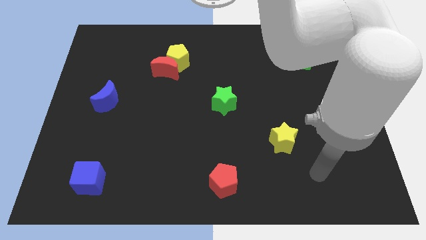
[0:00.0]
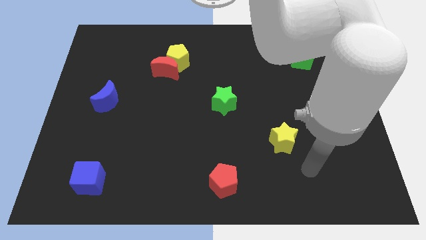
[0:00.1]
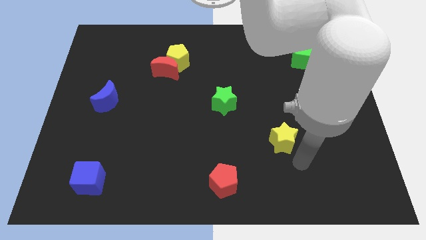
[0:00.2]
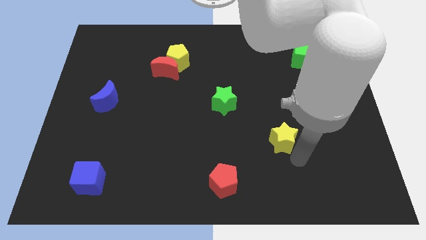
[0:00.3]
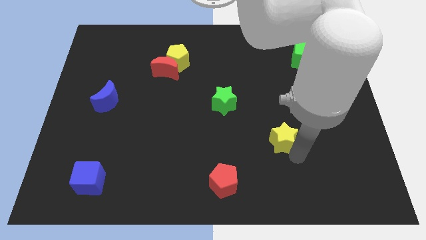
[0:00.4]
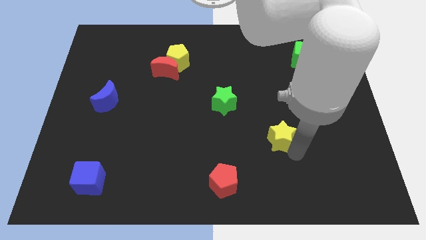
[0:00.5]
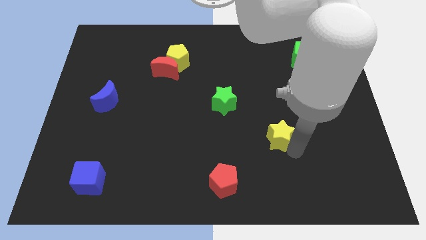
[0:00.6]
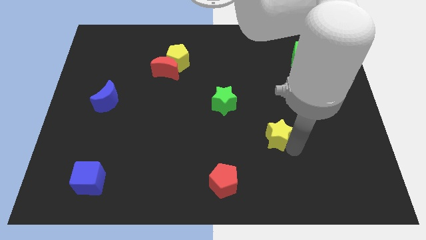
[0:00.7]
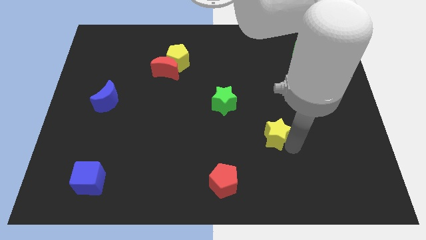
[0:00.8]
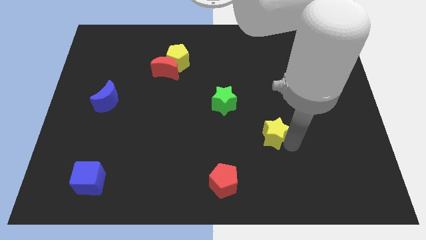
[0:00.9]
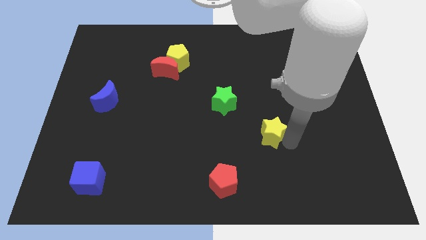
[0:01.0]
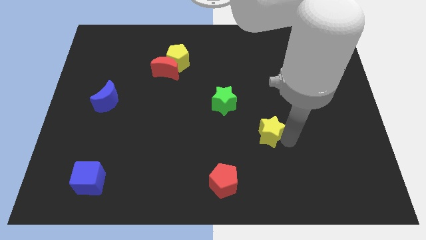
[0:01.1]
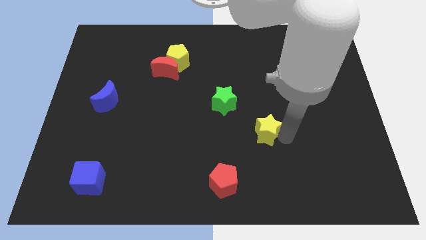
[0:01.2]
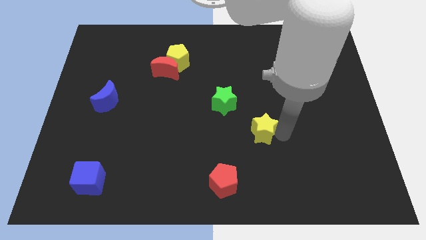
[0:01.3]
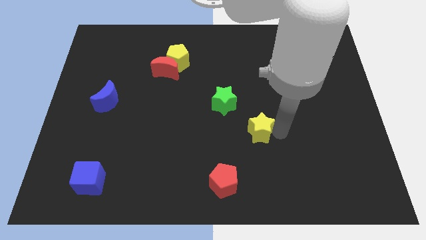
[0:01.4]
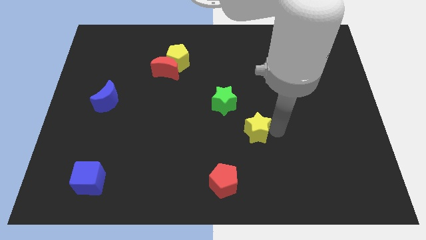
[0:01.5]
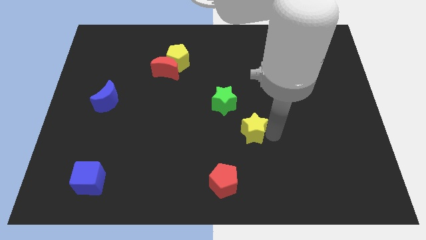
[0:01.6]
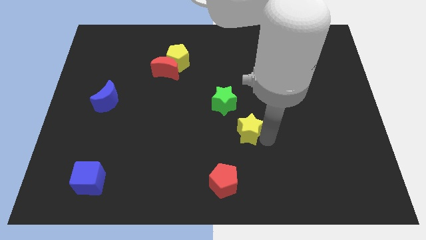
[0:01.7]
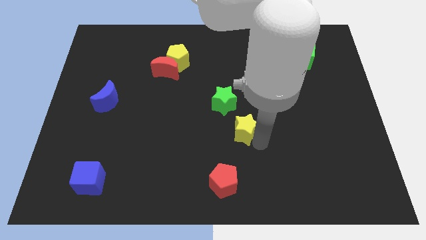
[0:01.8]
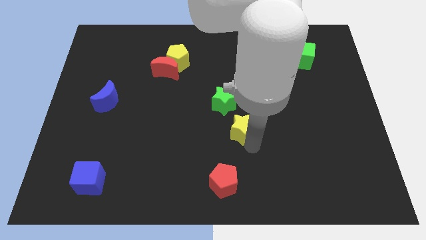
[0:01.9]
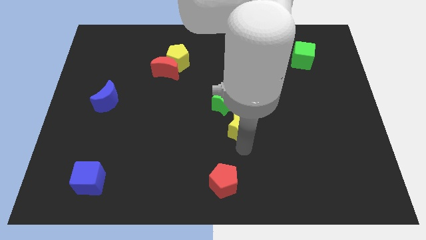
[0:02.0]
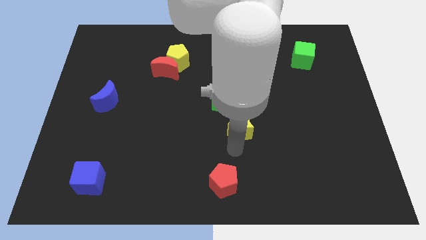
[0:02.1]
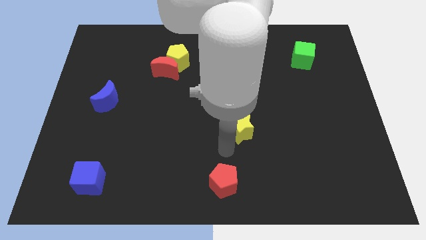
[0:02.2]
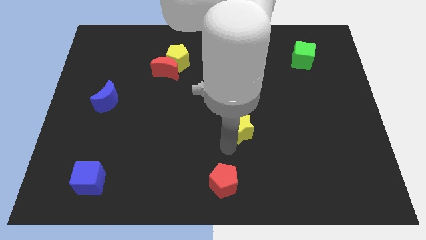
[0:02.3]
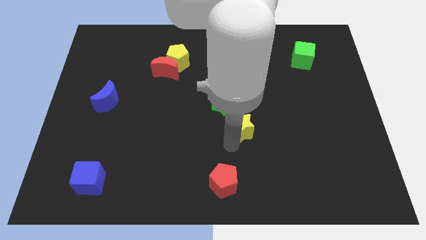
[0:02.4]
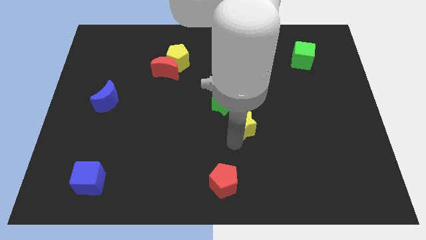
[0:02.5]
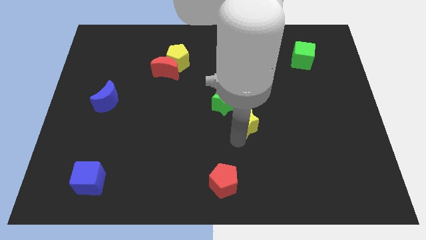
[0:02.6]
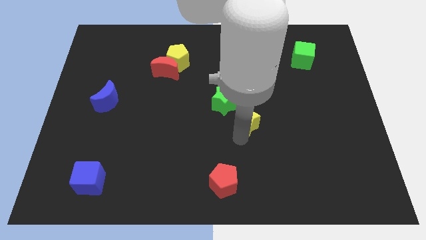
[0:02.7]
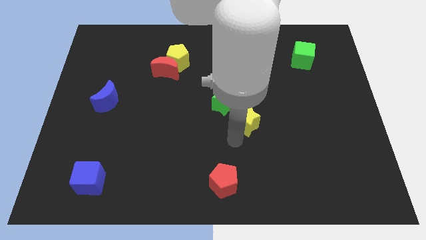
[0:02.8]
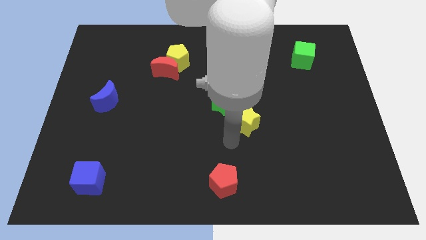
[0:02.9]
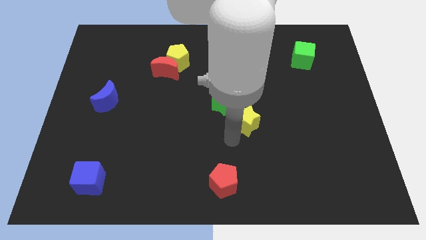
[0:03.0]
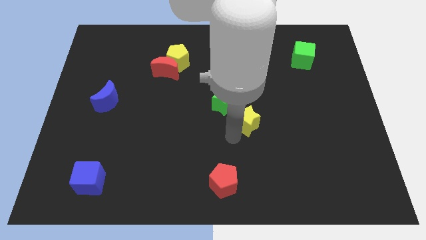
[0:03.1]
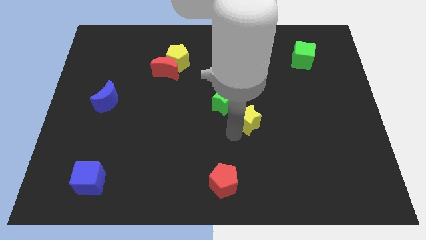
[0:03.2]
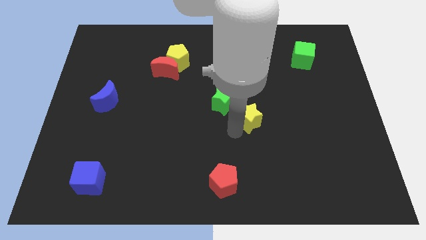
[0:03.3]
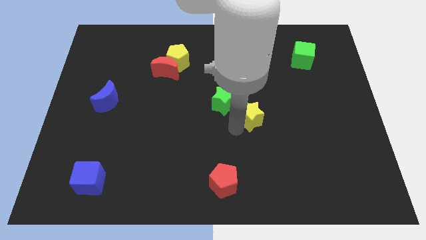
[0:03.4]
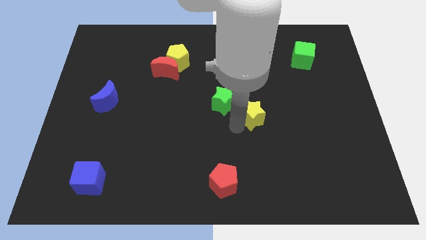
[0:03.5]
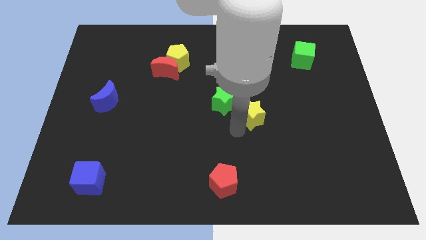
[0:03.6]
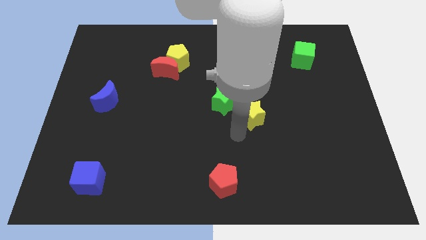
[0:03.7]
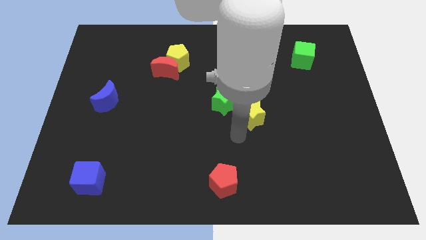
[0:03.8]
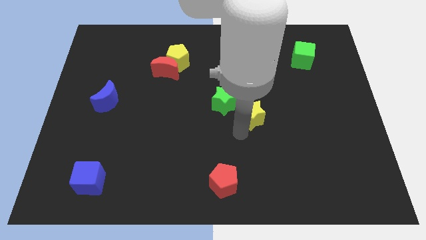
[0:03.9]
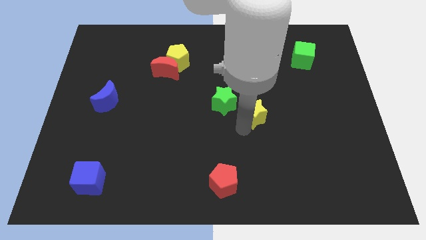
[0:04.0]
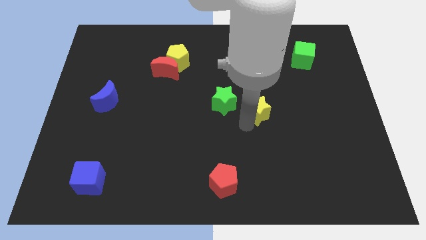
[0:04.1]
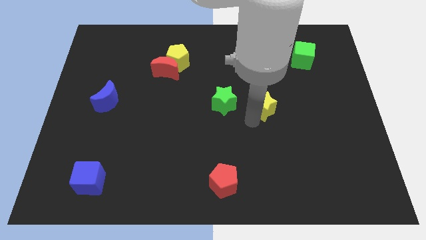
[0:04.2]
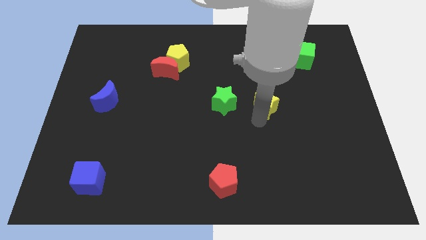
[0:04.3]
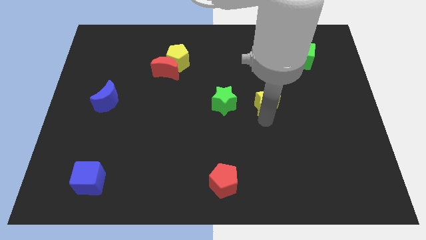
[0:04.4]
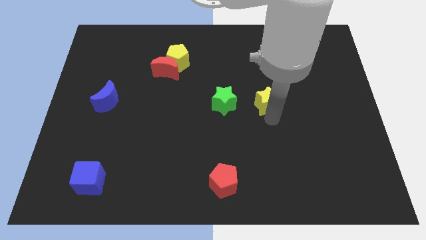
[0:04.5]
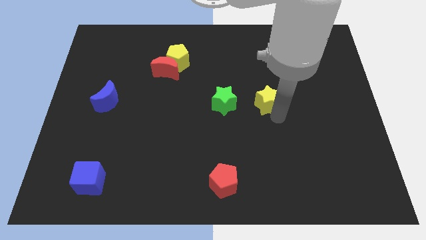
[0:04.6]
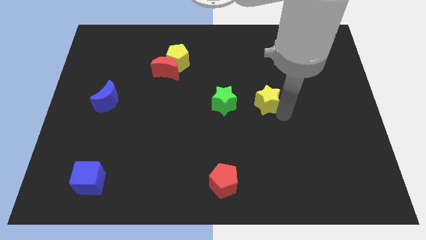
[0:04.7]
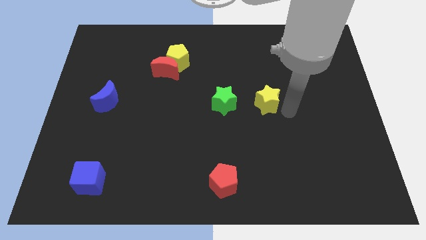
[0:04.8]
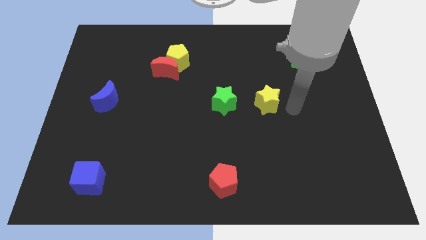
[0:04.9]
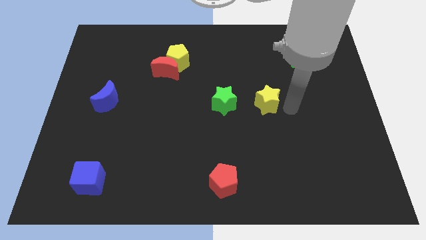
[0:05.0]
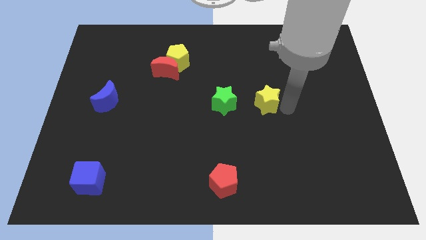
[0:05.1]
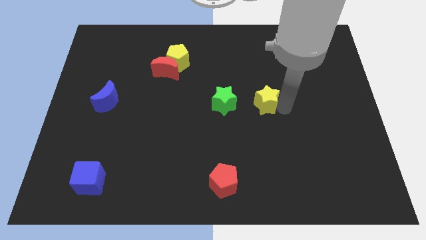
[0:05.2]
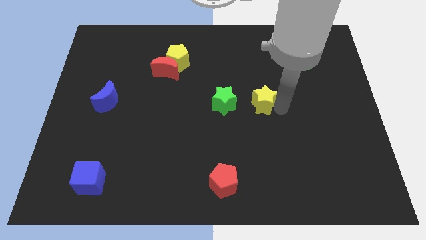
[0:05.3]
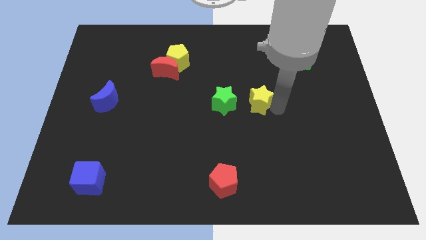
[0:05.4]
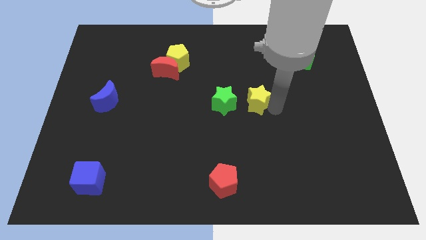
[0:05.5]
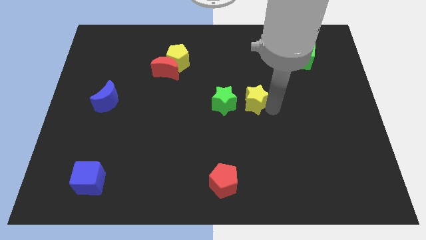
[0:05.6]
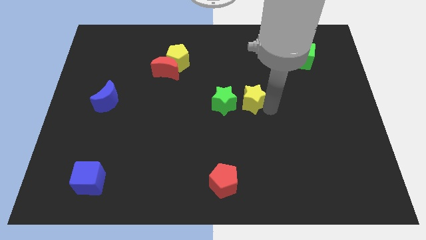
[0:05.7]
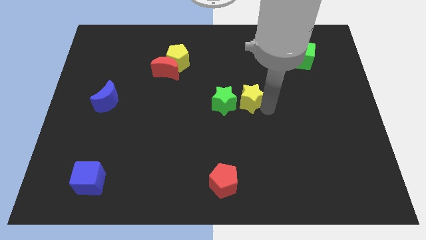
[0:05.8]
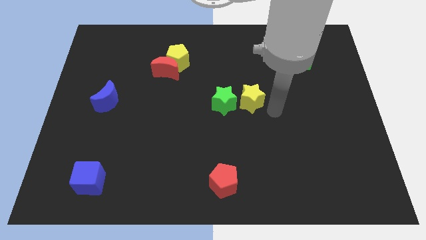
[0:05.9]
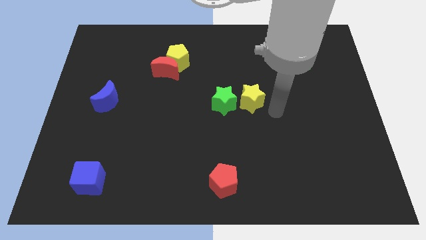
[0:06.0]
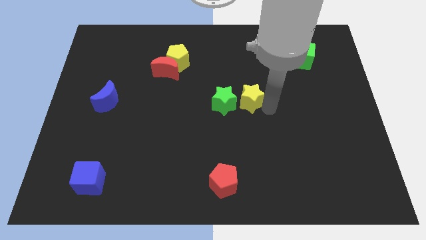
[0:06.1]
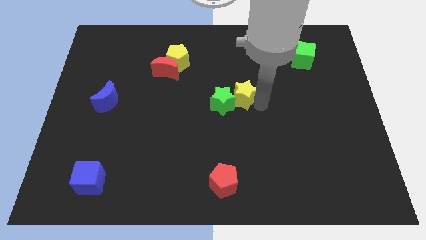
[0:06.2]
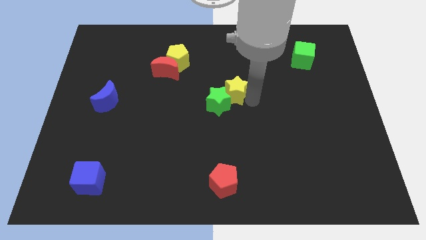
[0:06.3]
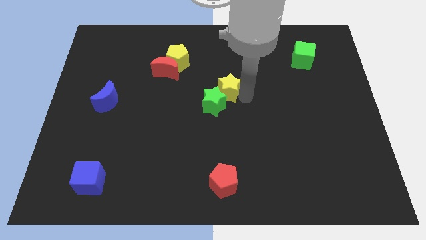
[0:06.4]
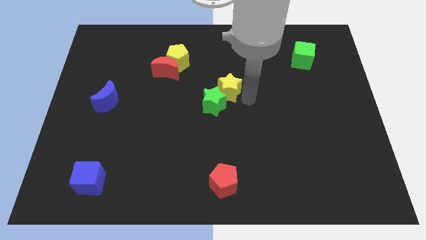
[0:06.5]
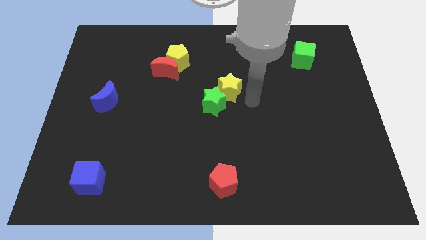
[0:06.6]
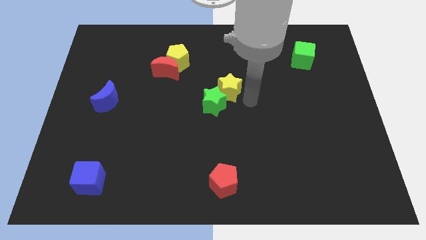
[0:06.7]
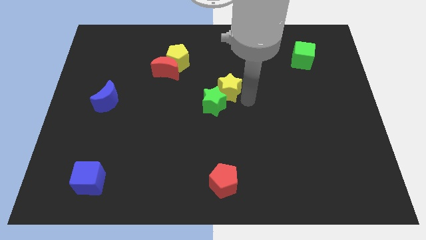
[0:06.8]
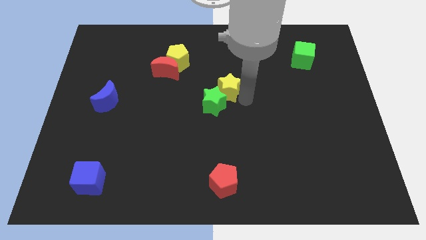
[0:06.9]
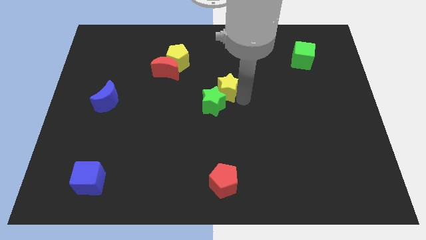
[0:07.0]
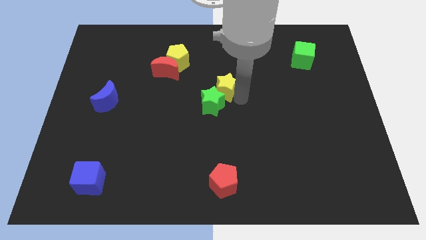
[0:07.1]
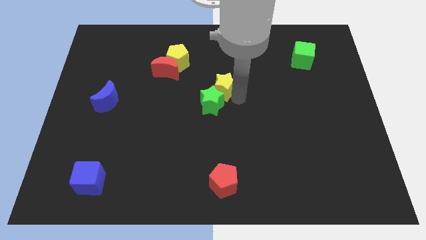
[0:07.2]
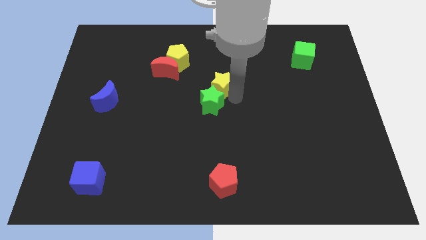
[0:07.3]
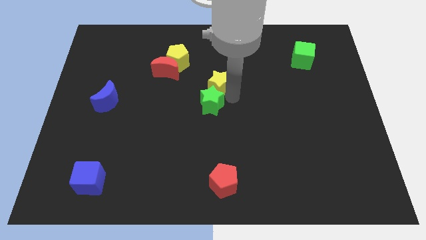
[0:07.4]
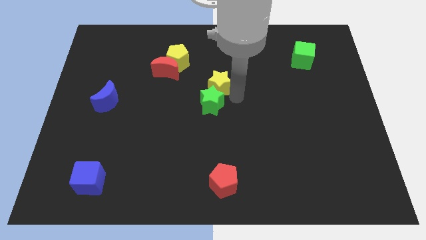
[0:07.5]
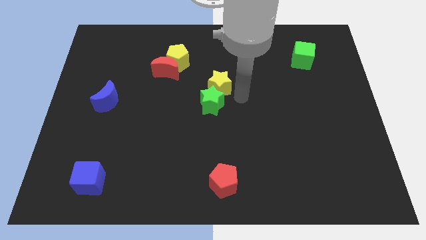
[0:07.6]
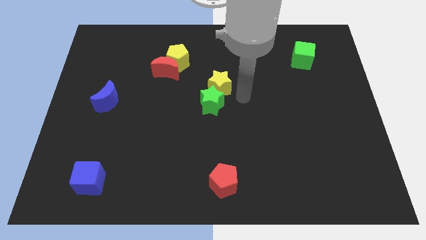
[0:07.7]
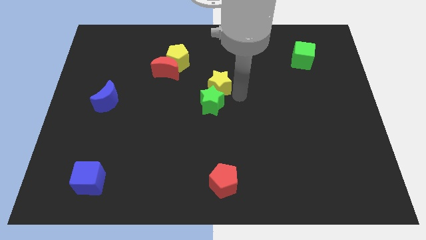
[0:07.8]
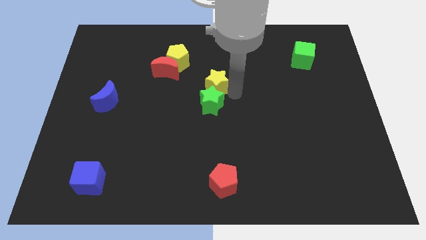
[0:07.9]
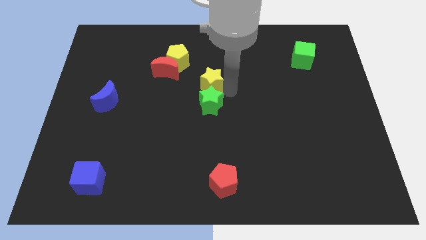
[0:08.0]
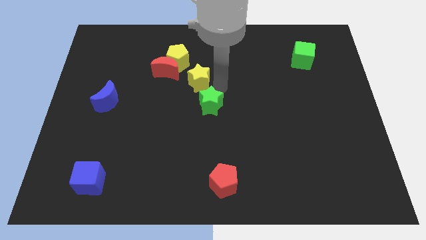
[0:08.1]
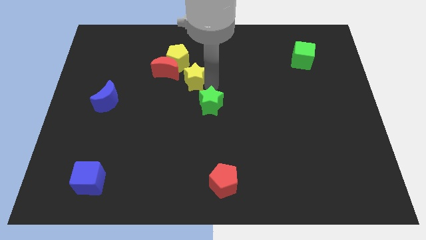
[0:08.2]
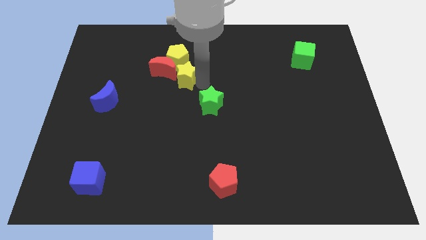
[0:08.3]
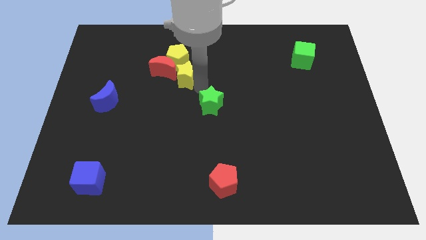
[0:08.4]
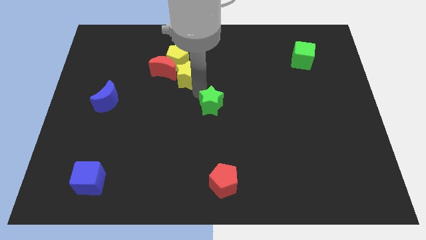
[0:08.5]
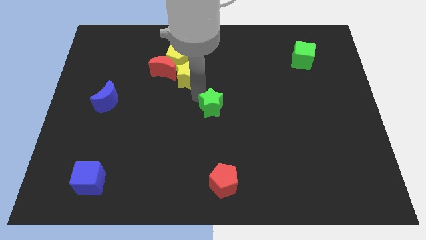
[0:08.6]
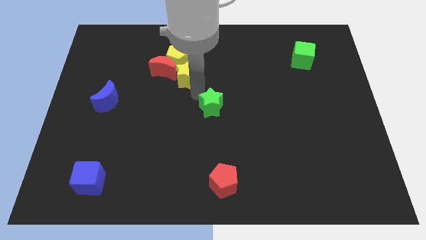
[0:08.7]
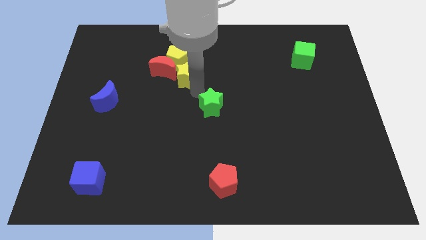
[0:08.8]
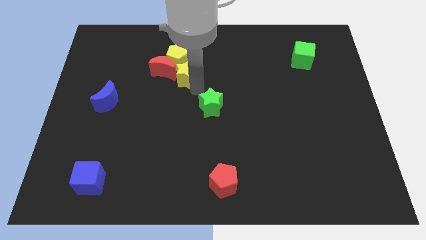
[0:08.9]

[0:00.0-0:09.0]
move the yellow star close to the yellow pentagon

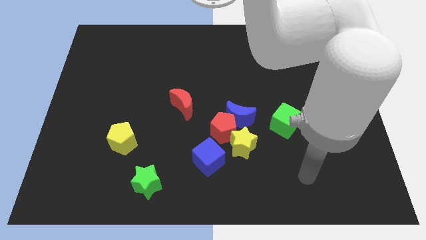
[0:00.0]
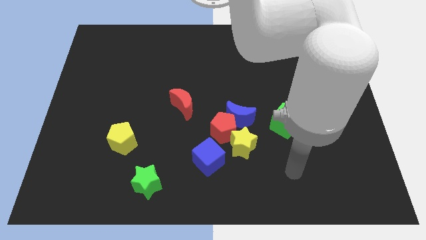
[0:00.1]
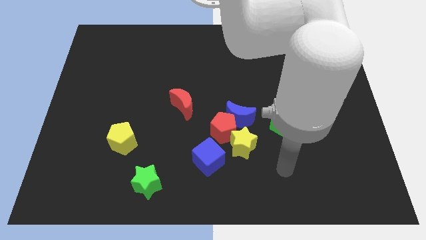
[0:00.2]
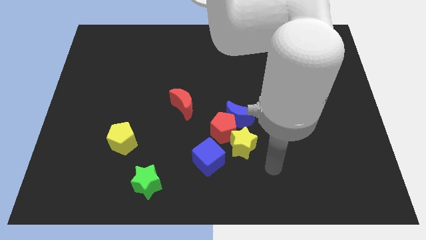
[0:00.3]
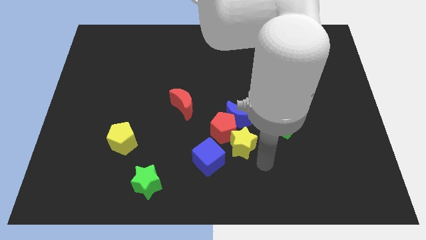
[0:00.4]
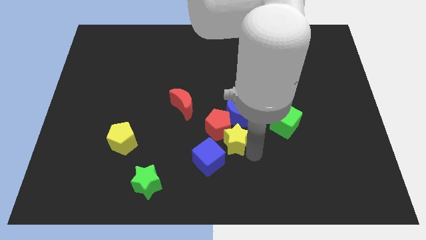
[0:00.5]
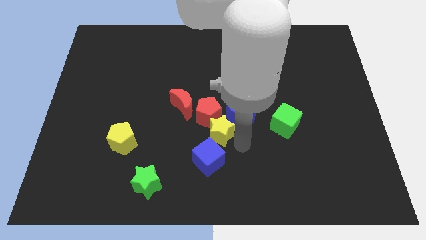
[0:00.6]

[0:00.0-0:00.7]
put the red pentagon next to the red moon
